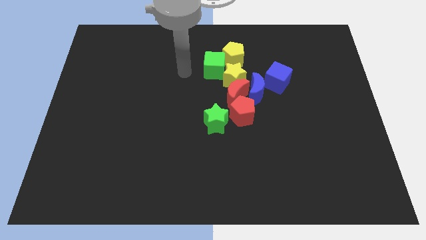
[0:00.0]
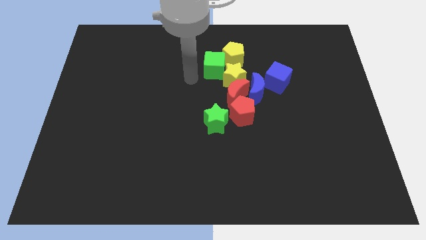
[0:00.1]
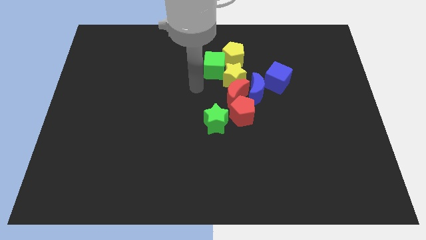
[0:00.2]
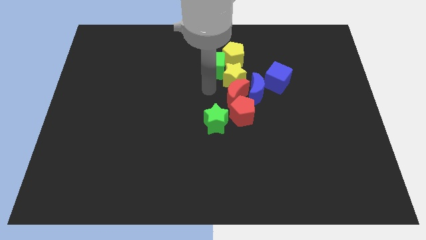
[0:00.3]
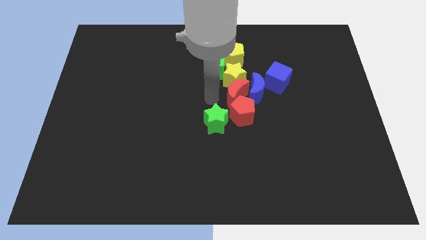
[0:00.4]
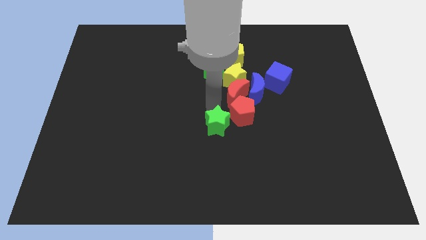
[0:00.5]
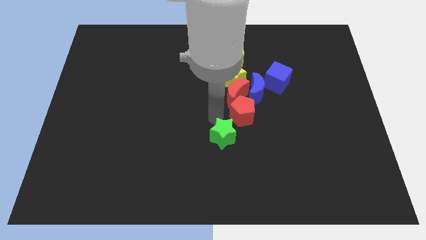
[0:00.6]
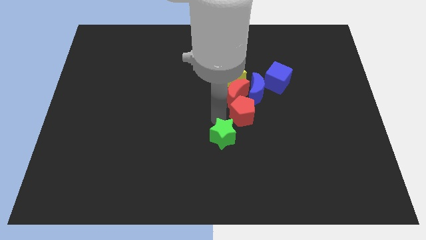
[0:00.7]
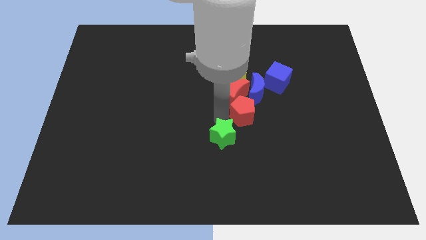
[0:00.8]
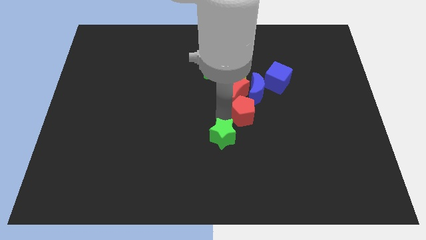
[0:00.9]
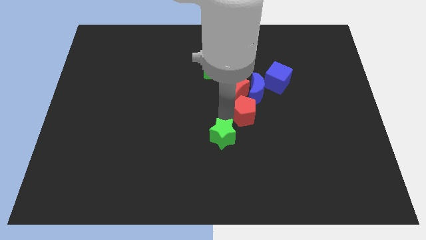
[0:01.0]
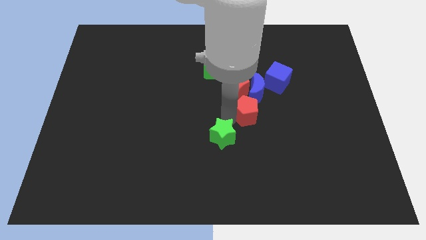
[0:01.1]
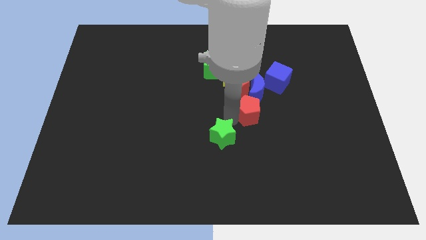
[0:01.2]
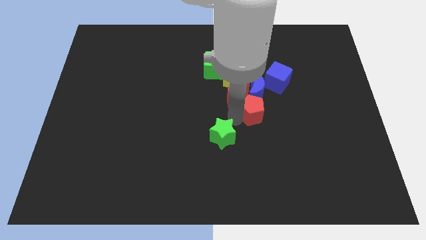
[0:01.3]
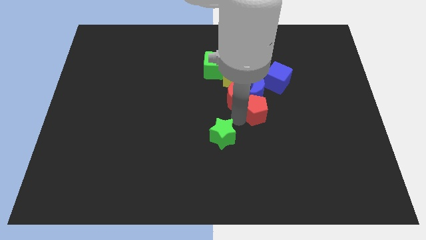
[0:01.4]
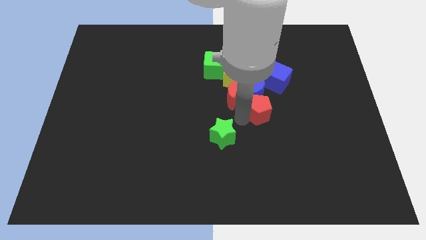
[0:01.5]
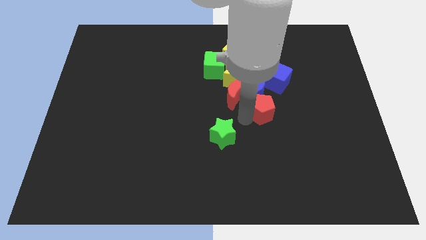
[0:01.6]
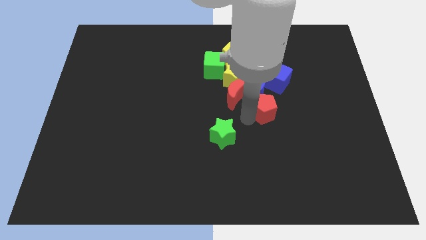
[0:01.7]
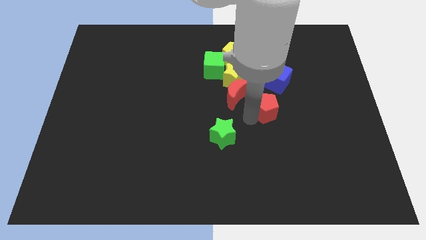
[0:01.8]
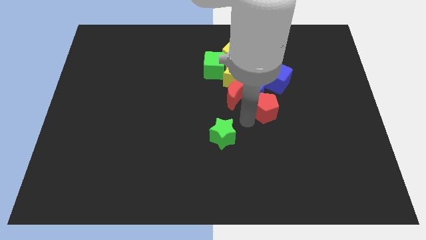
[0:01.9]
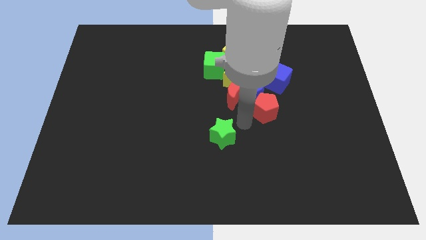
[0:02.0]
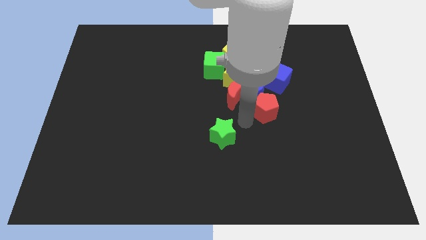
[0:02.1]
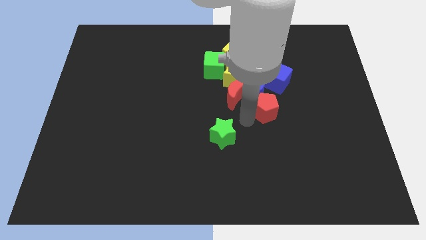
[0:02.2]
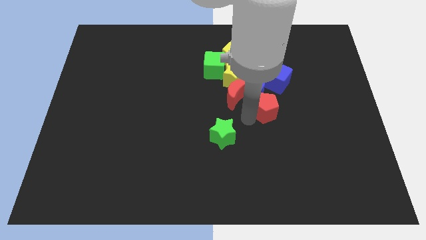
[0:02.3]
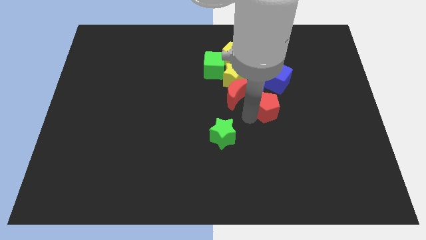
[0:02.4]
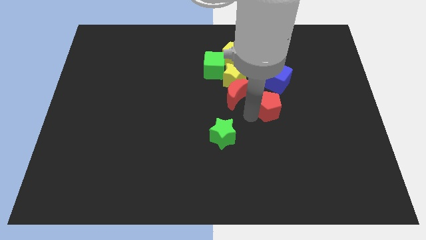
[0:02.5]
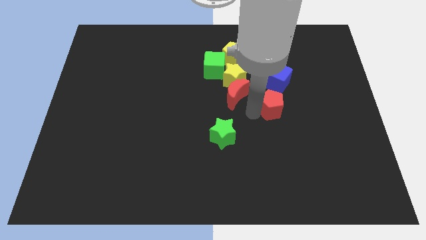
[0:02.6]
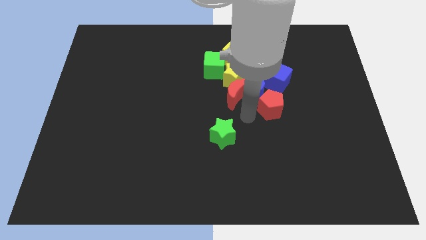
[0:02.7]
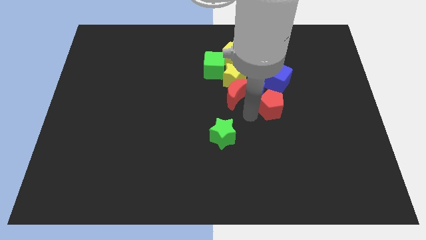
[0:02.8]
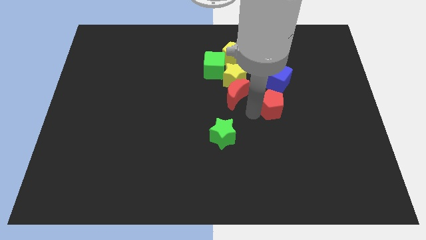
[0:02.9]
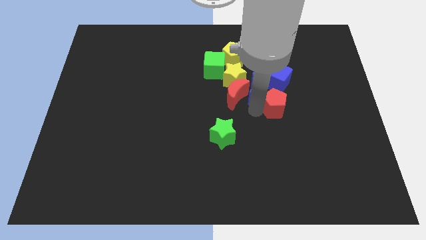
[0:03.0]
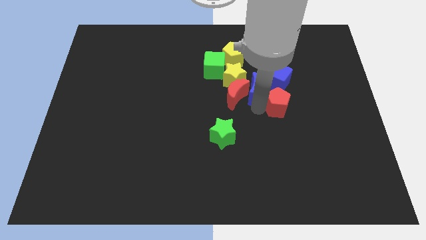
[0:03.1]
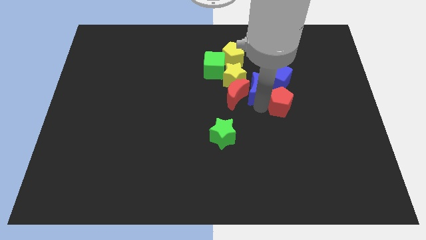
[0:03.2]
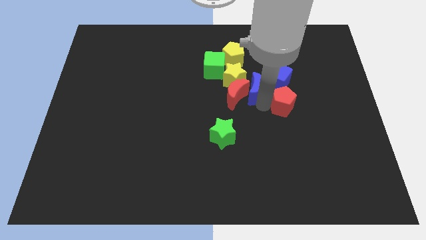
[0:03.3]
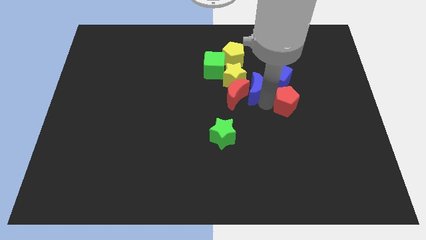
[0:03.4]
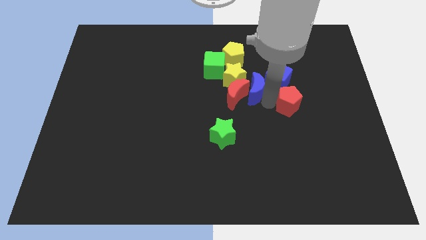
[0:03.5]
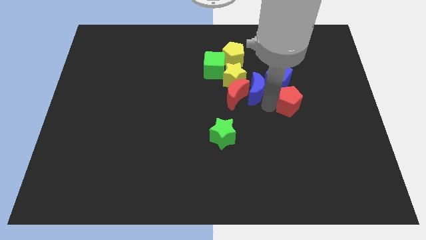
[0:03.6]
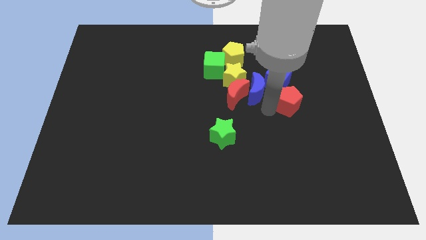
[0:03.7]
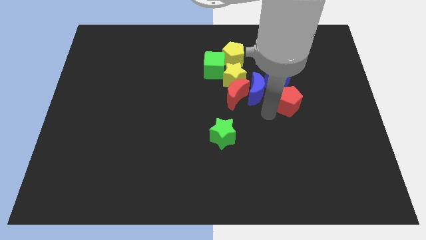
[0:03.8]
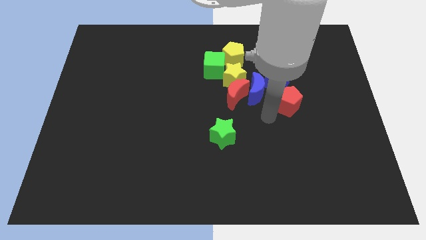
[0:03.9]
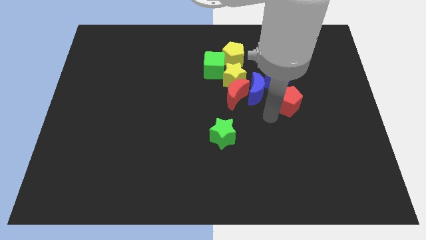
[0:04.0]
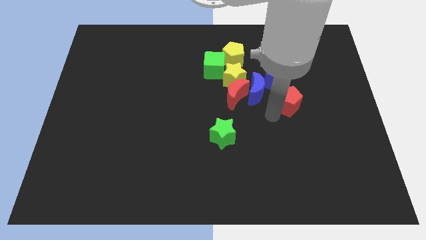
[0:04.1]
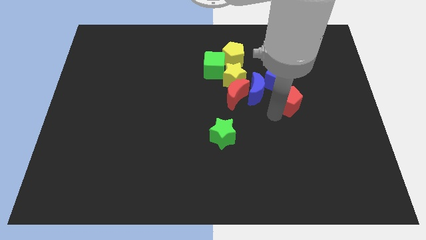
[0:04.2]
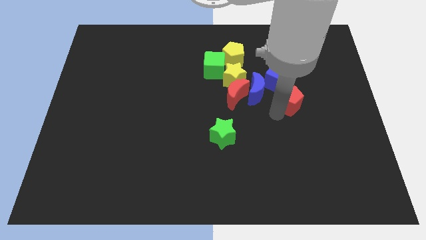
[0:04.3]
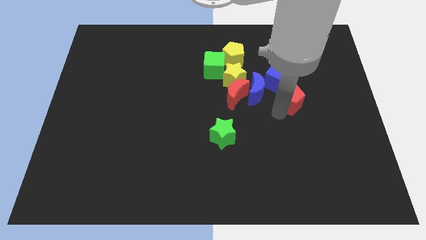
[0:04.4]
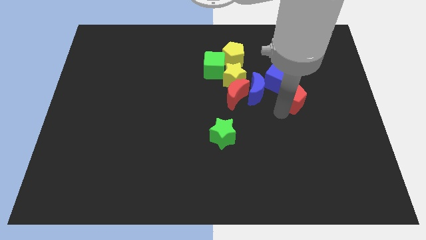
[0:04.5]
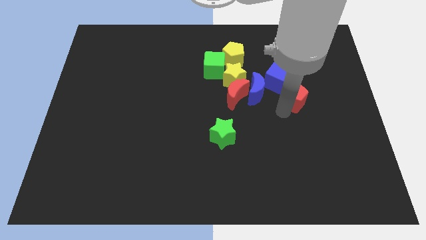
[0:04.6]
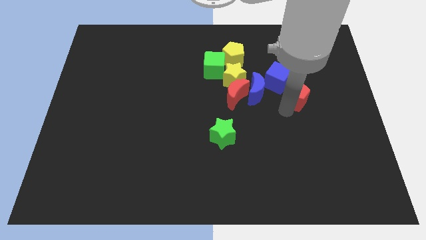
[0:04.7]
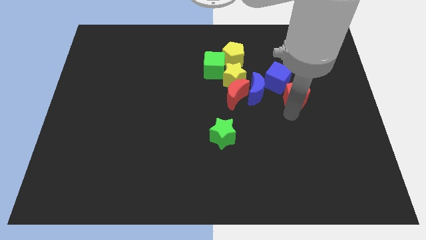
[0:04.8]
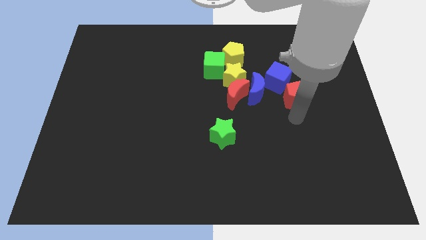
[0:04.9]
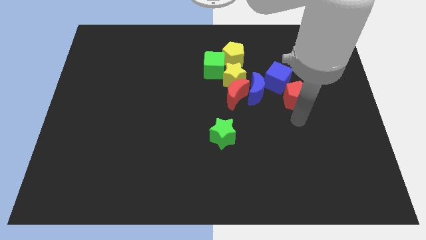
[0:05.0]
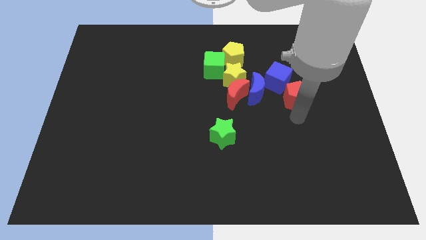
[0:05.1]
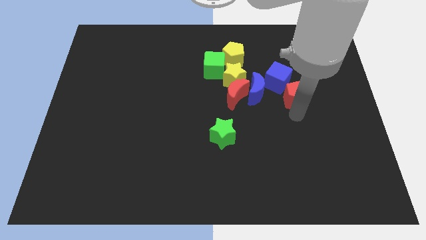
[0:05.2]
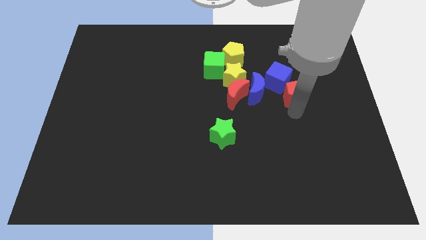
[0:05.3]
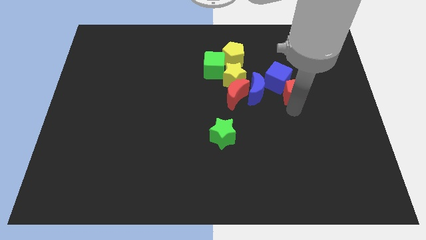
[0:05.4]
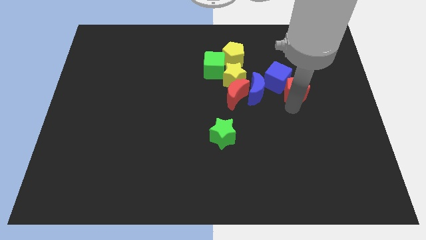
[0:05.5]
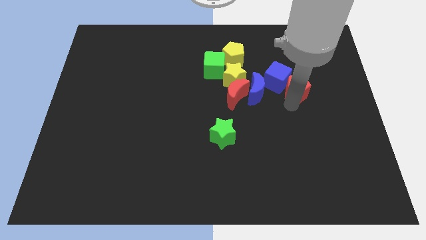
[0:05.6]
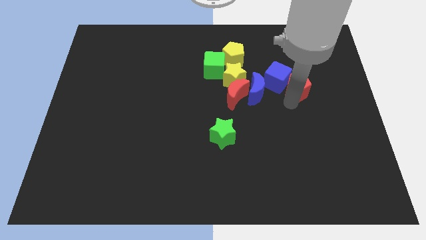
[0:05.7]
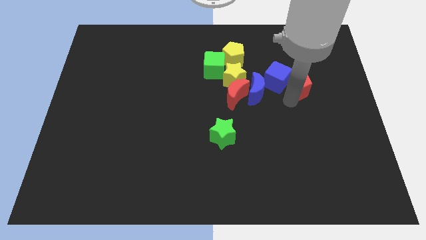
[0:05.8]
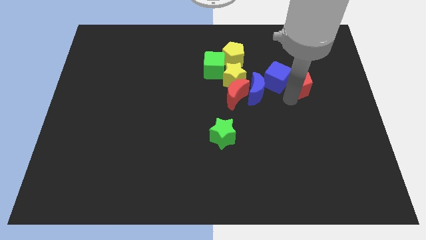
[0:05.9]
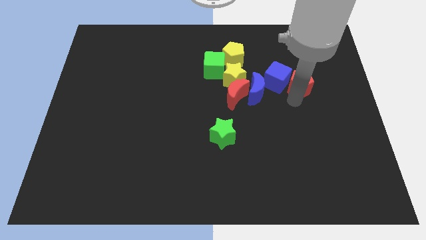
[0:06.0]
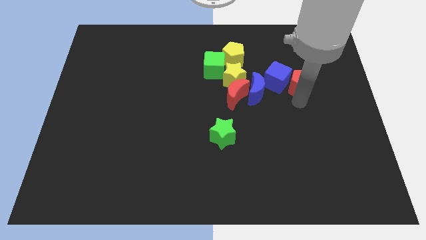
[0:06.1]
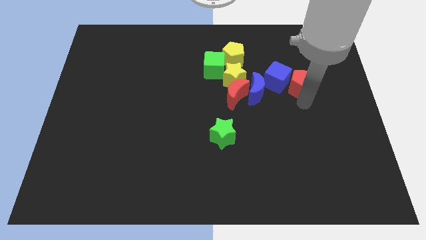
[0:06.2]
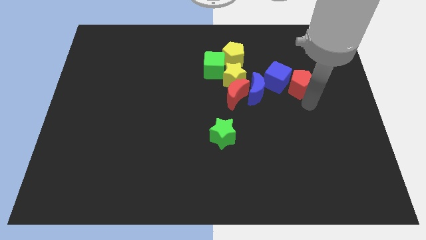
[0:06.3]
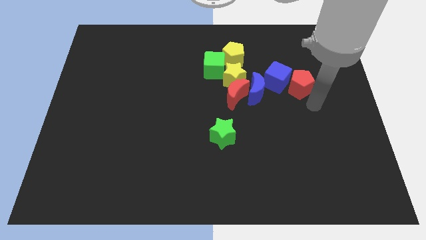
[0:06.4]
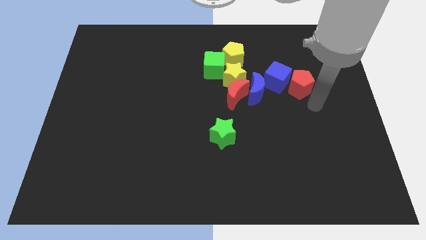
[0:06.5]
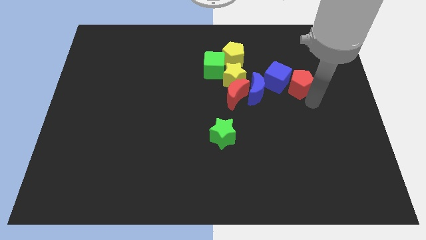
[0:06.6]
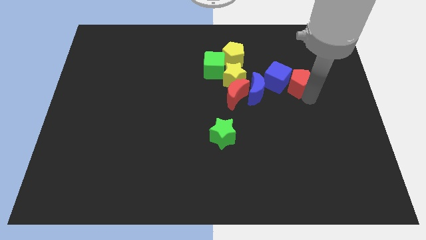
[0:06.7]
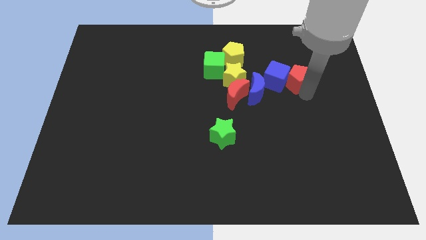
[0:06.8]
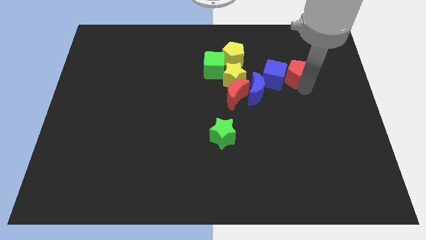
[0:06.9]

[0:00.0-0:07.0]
put the red pentagon to the top right side of the blue moon
